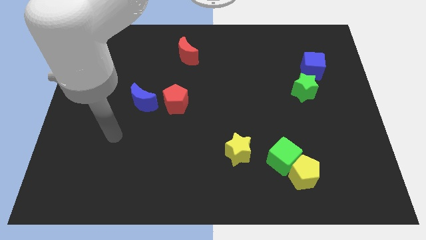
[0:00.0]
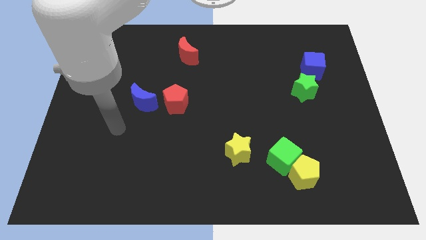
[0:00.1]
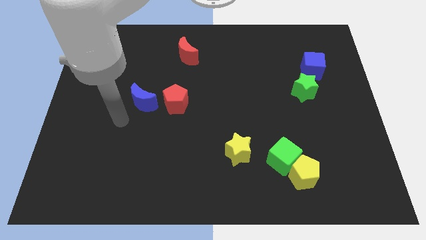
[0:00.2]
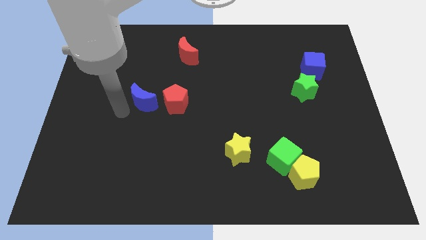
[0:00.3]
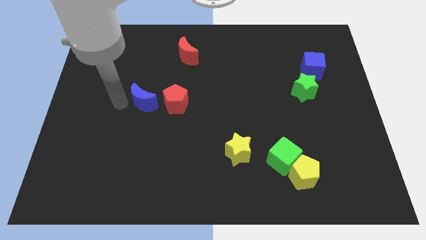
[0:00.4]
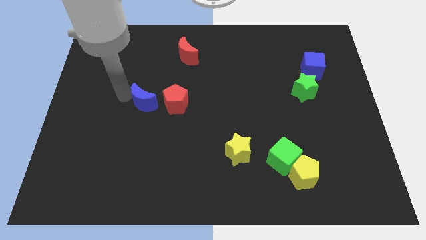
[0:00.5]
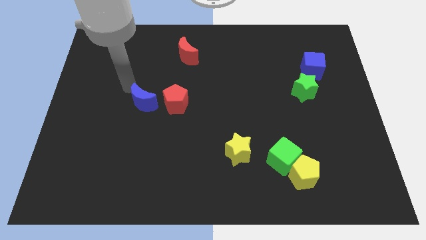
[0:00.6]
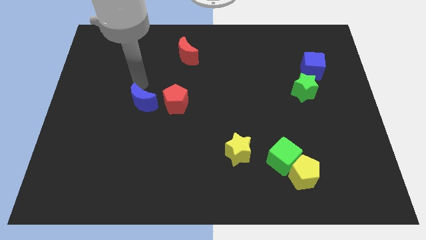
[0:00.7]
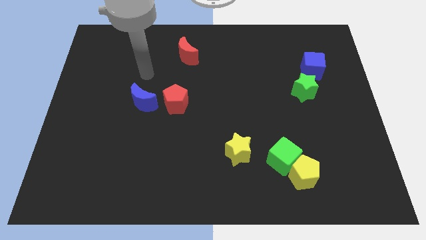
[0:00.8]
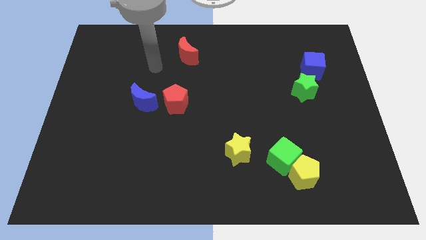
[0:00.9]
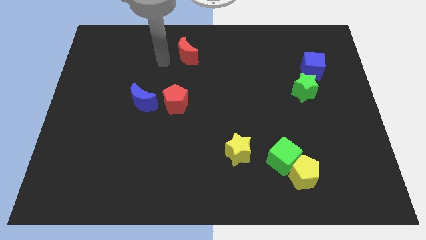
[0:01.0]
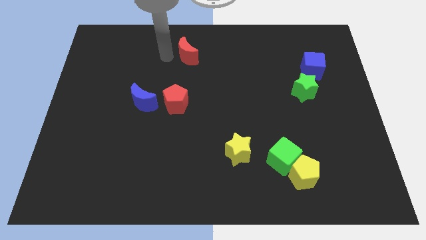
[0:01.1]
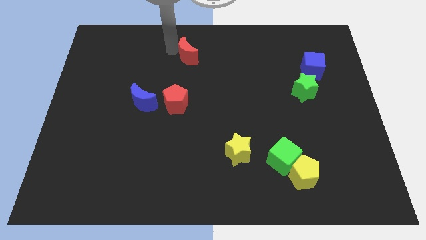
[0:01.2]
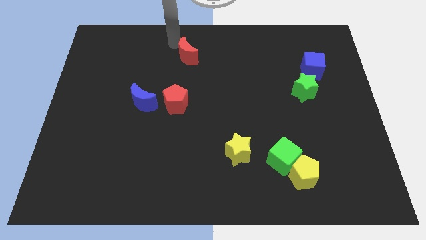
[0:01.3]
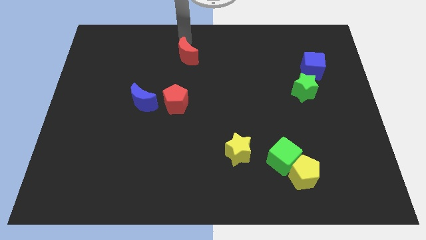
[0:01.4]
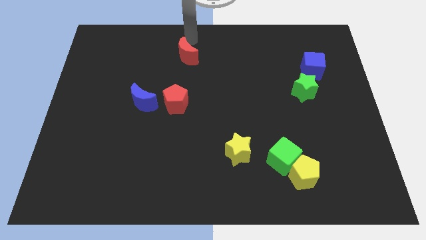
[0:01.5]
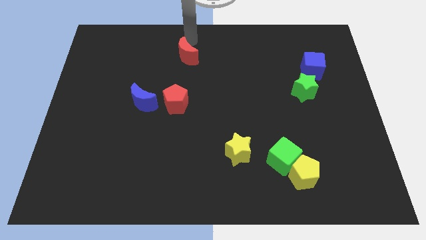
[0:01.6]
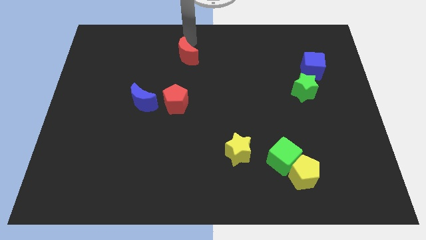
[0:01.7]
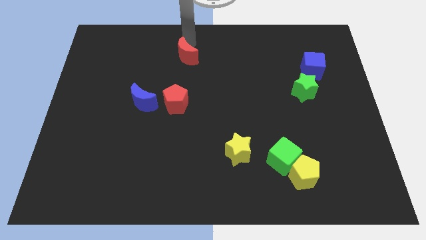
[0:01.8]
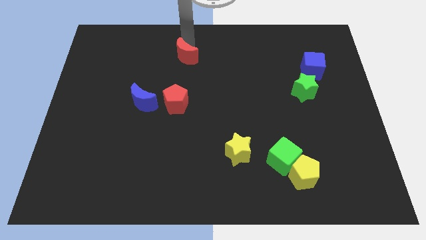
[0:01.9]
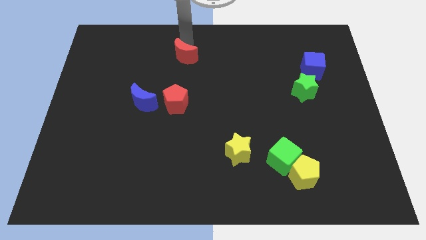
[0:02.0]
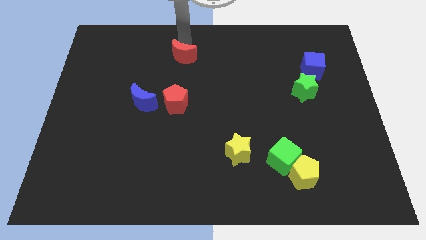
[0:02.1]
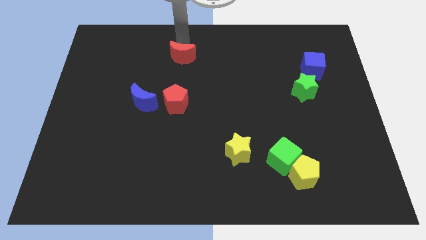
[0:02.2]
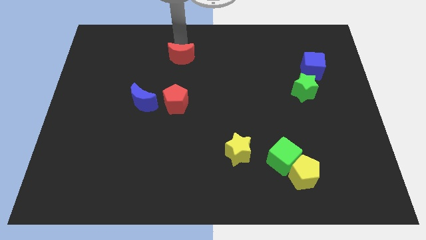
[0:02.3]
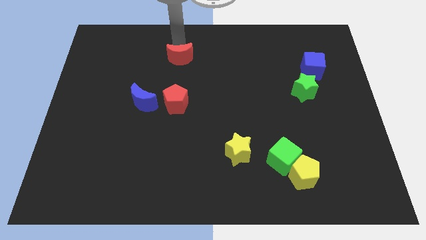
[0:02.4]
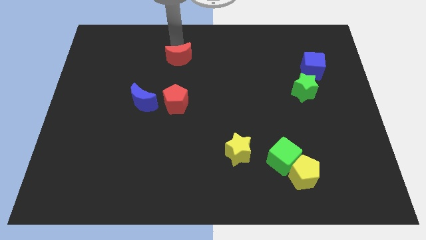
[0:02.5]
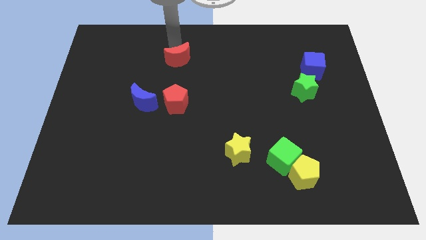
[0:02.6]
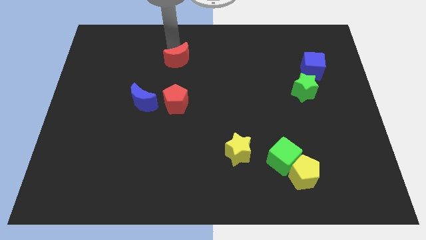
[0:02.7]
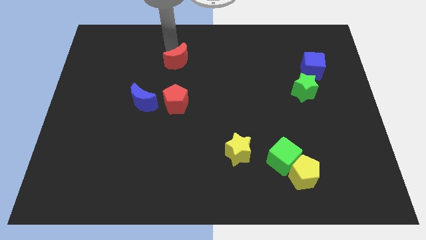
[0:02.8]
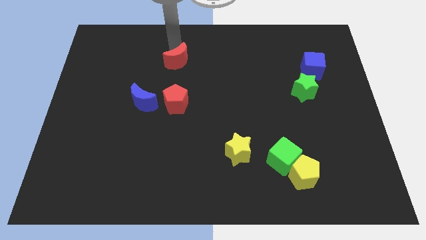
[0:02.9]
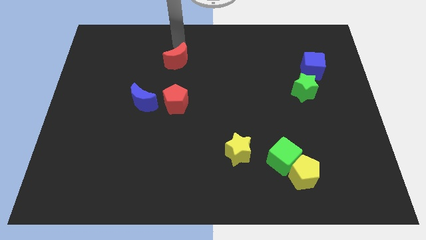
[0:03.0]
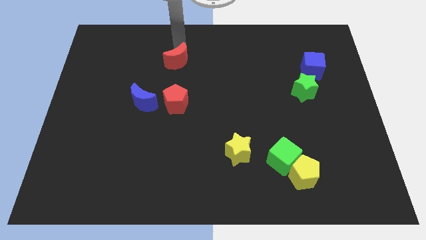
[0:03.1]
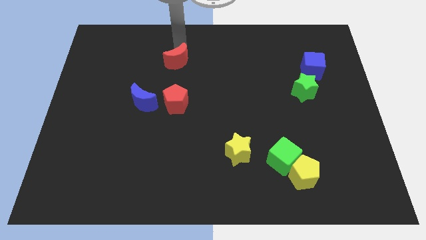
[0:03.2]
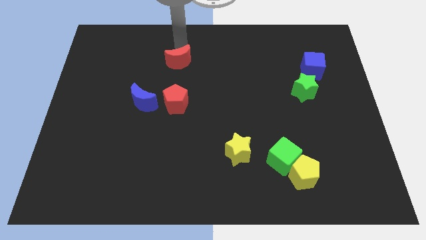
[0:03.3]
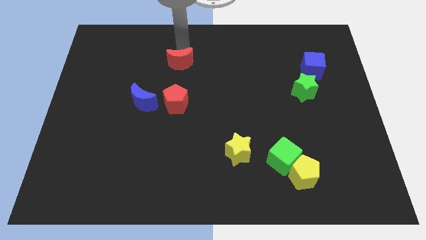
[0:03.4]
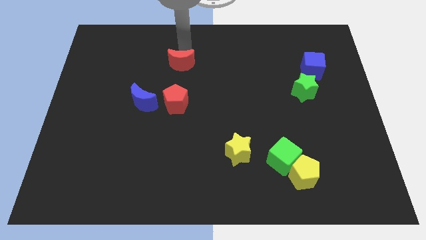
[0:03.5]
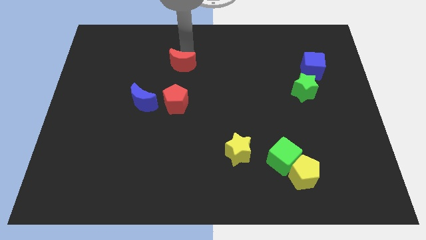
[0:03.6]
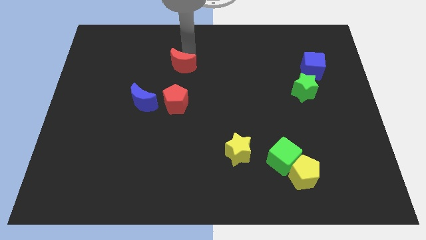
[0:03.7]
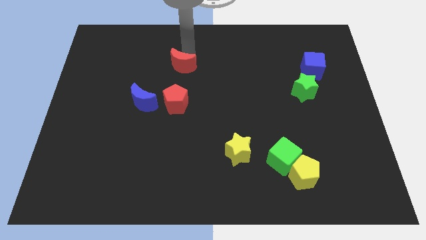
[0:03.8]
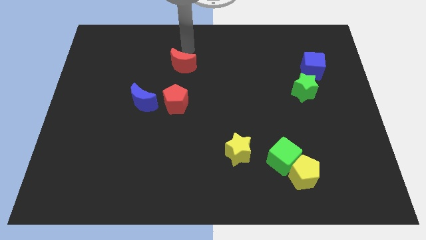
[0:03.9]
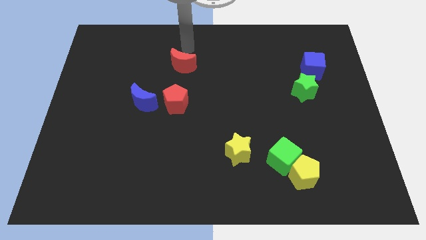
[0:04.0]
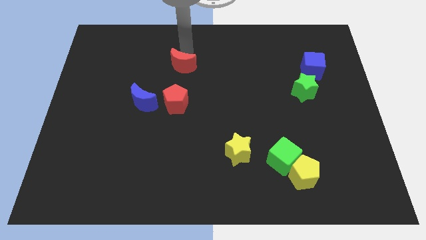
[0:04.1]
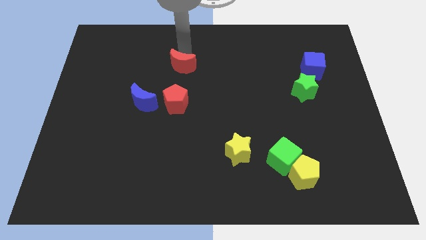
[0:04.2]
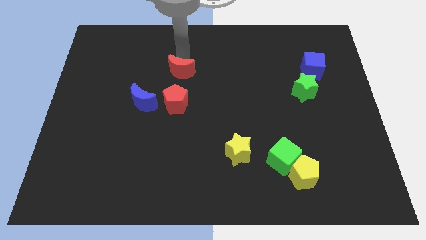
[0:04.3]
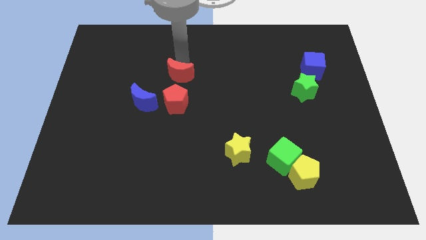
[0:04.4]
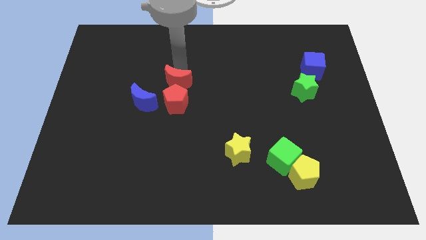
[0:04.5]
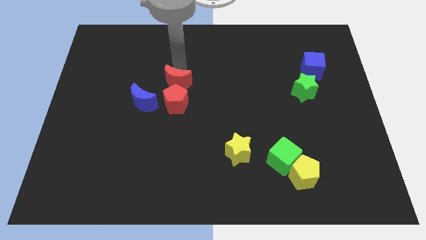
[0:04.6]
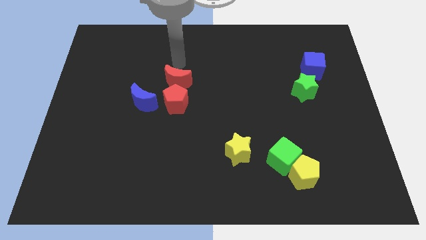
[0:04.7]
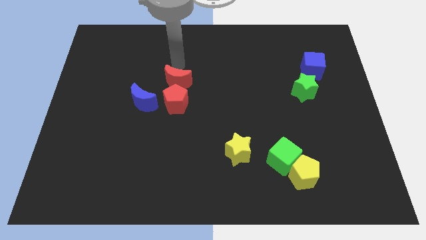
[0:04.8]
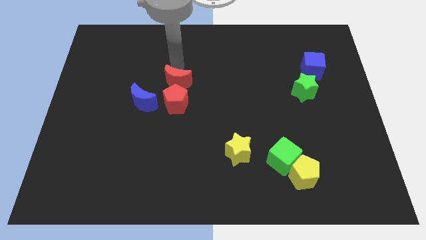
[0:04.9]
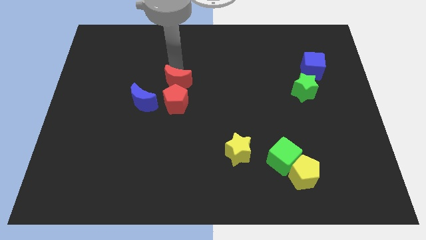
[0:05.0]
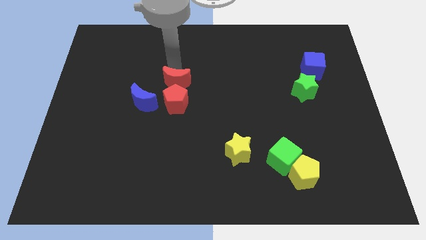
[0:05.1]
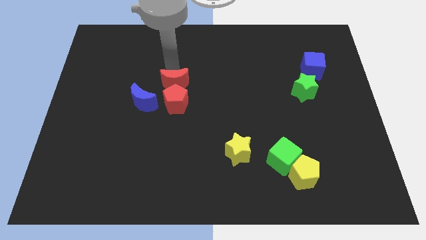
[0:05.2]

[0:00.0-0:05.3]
slide the red moon next to the red pentagon

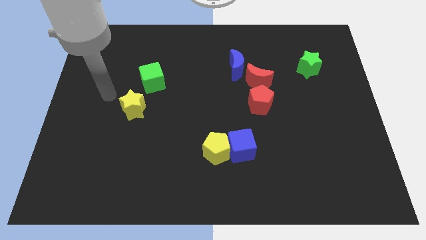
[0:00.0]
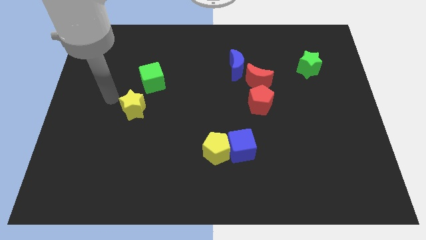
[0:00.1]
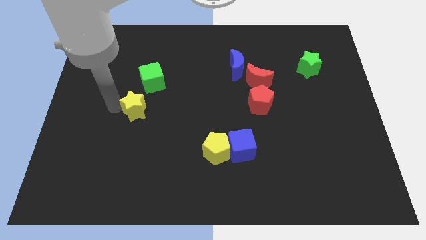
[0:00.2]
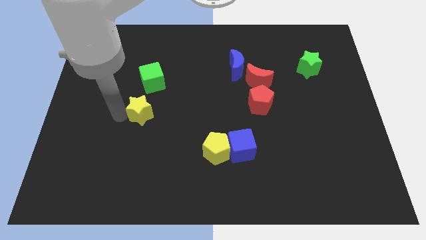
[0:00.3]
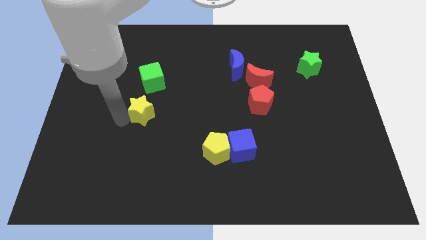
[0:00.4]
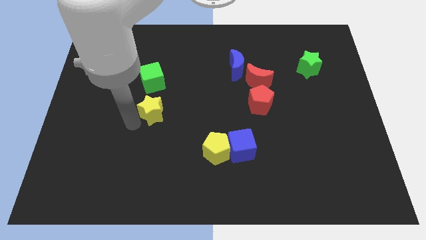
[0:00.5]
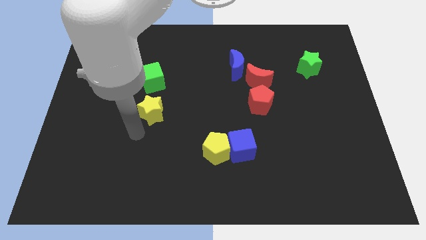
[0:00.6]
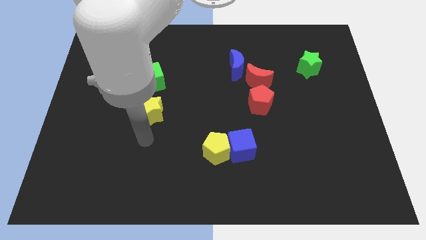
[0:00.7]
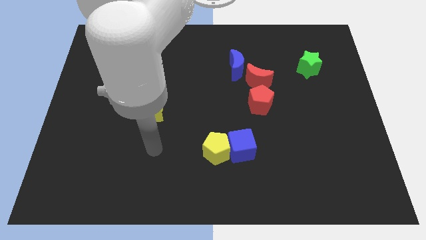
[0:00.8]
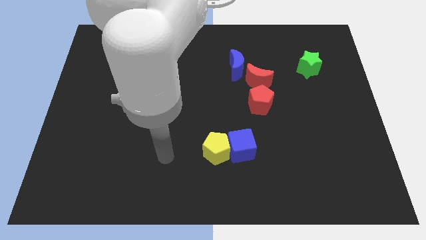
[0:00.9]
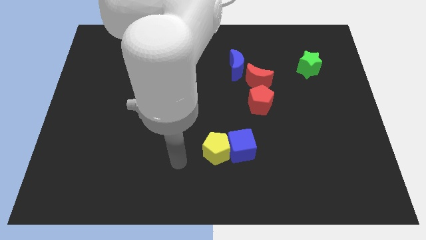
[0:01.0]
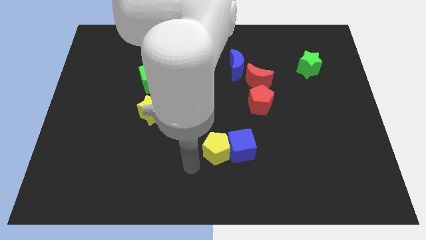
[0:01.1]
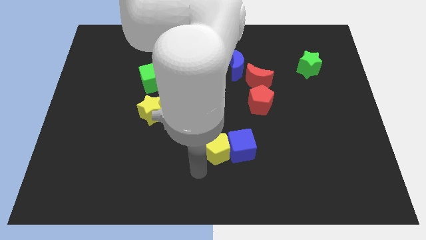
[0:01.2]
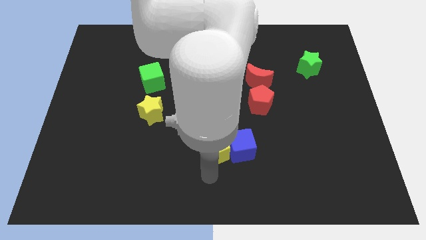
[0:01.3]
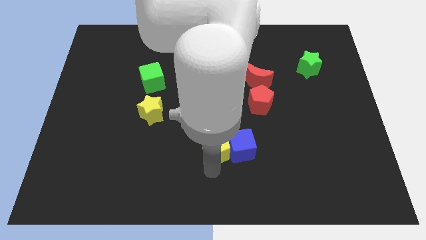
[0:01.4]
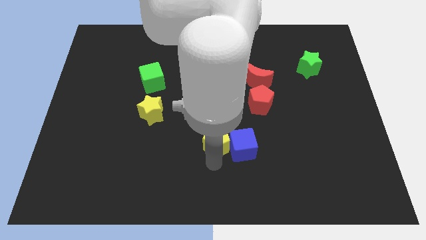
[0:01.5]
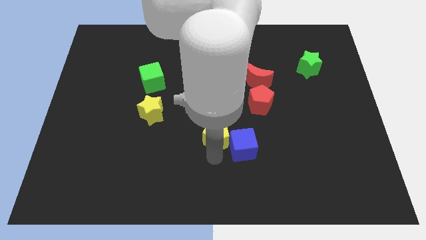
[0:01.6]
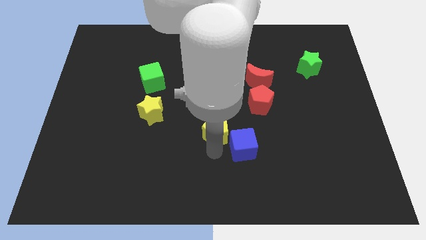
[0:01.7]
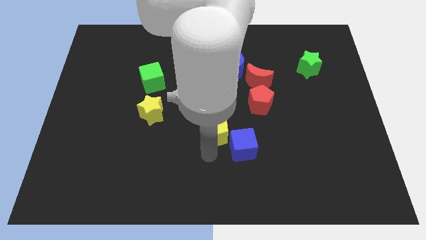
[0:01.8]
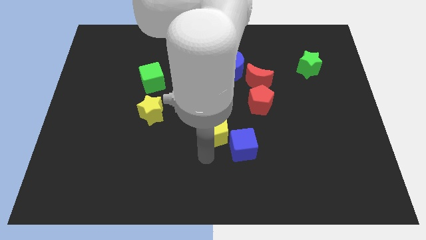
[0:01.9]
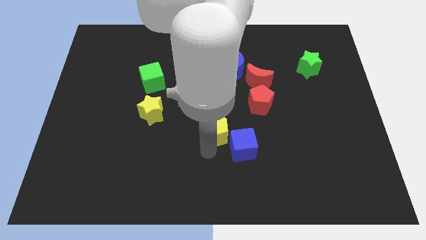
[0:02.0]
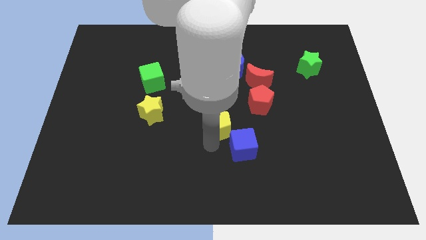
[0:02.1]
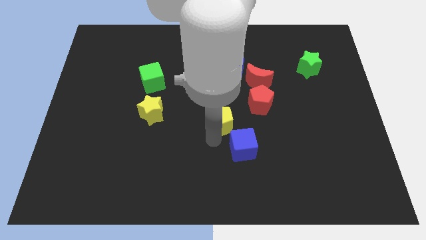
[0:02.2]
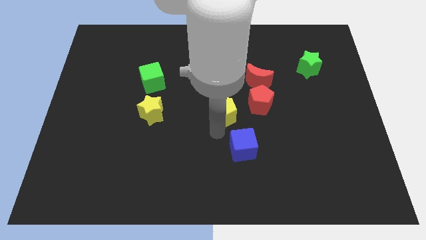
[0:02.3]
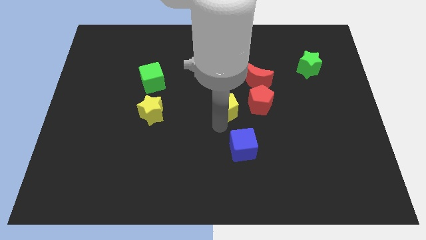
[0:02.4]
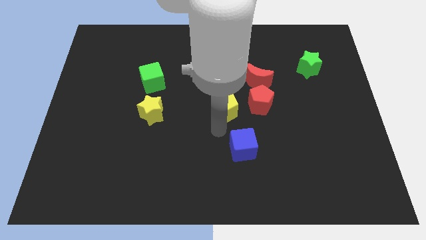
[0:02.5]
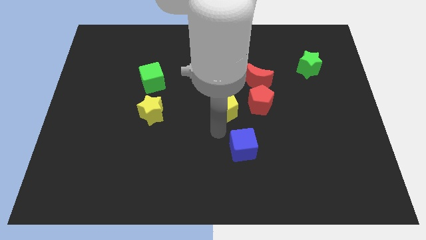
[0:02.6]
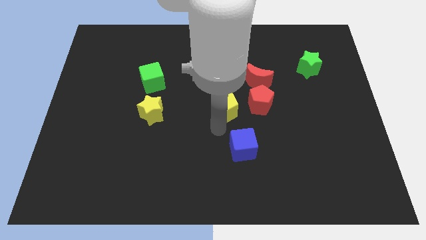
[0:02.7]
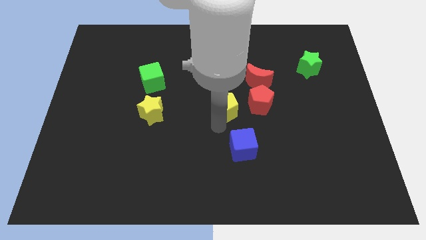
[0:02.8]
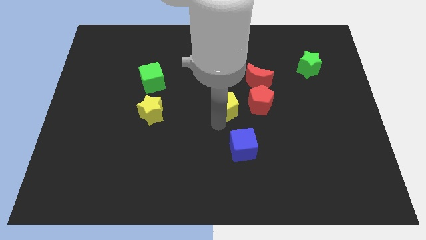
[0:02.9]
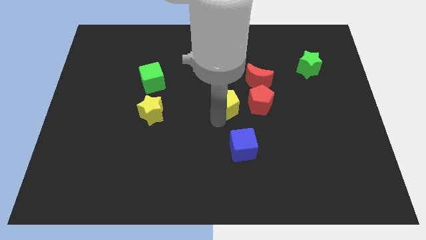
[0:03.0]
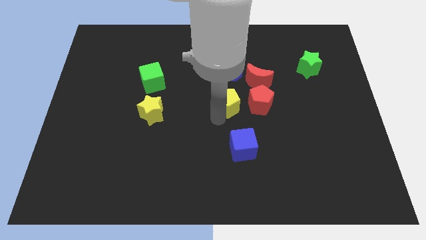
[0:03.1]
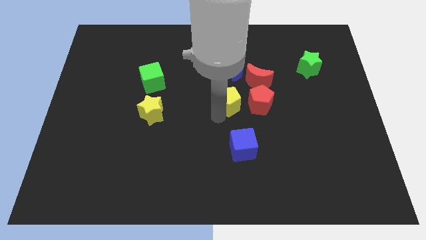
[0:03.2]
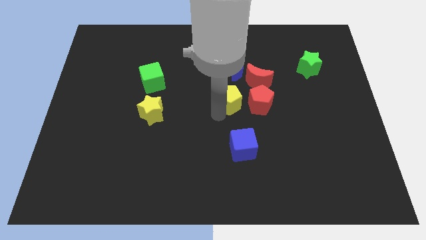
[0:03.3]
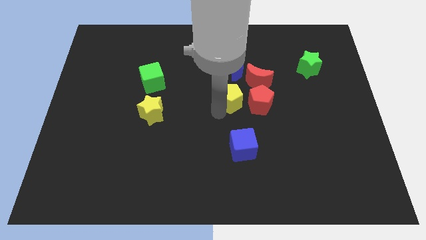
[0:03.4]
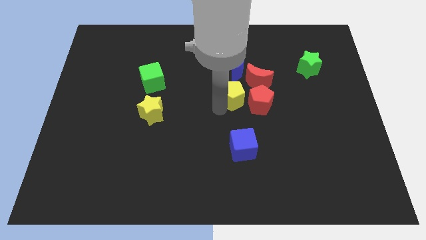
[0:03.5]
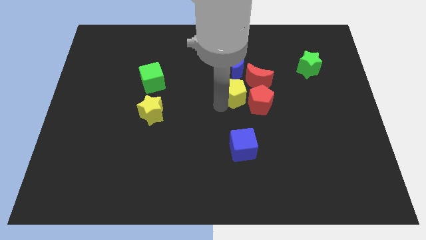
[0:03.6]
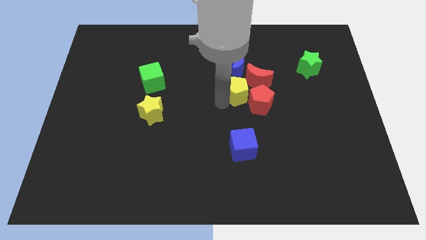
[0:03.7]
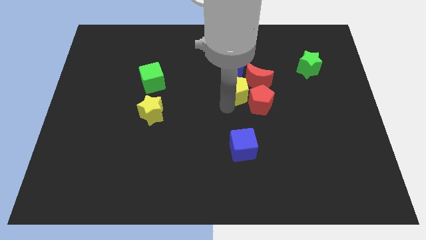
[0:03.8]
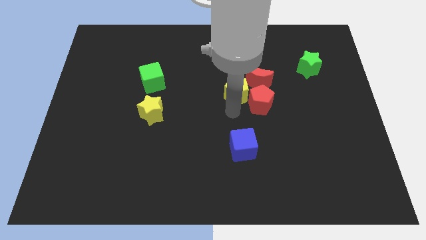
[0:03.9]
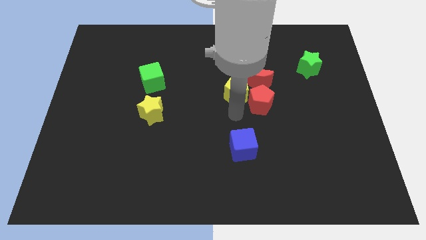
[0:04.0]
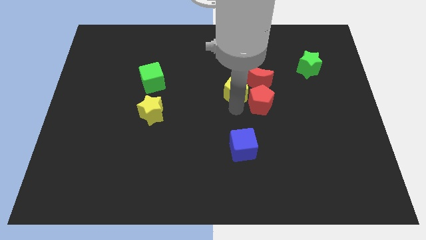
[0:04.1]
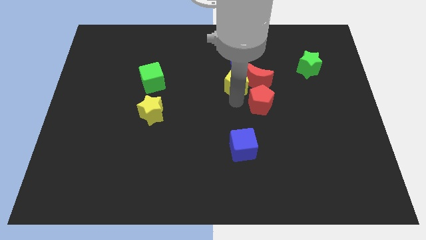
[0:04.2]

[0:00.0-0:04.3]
push the yellow pentagon next to the blue moon
